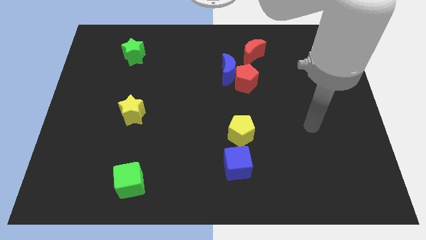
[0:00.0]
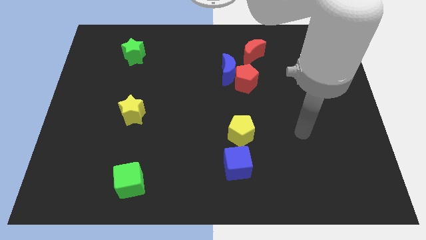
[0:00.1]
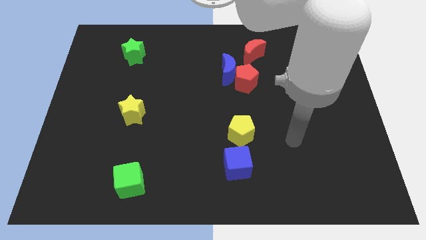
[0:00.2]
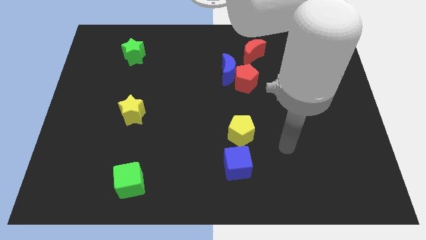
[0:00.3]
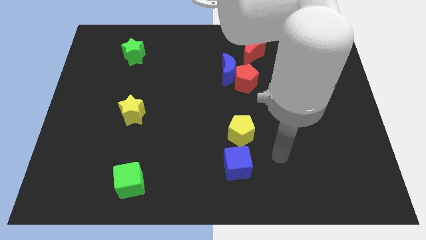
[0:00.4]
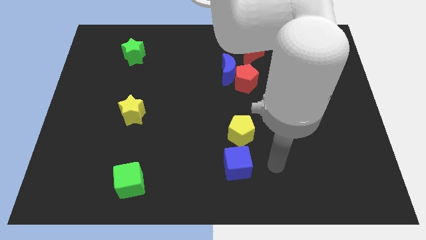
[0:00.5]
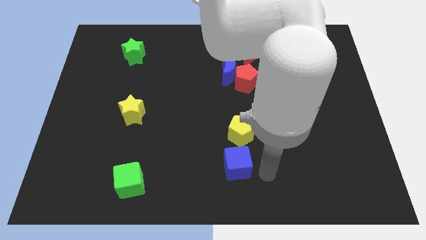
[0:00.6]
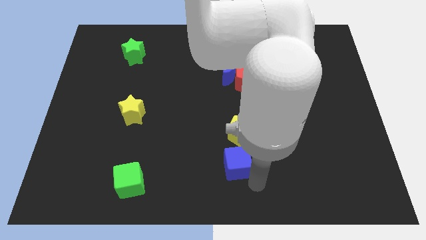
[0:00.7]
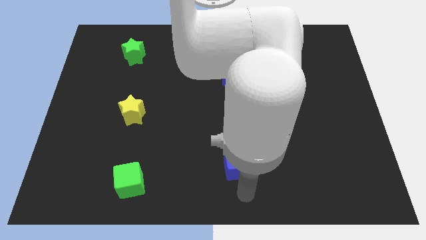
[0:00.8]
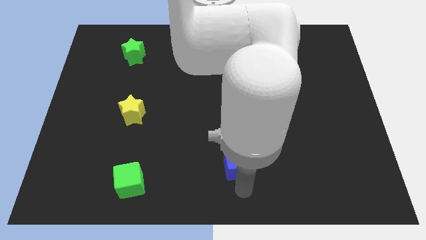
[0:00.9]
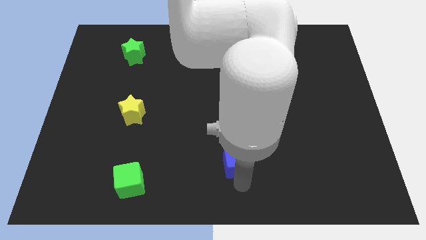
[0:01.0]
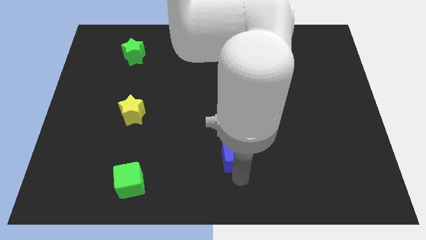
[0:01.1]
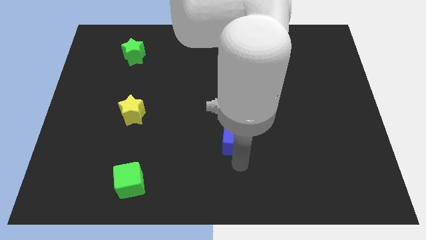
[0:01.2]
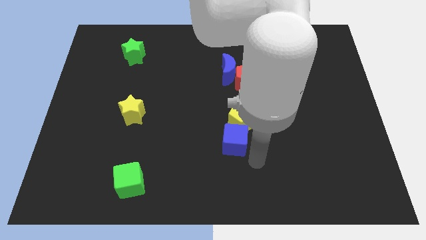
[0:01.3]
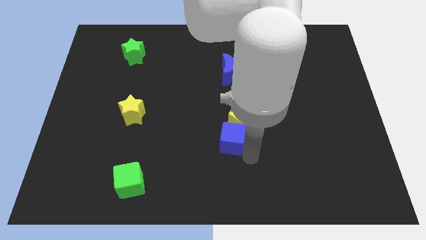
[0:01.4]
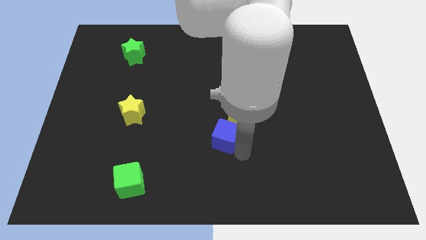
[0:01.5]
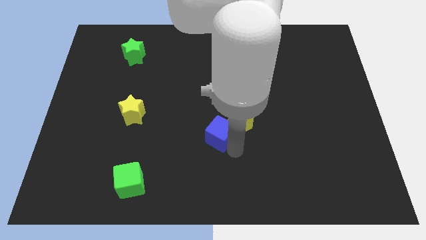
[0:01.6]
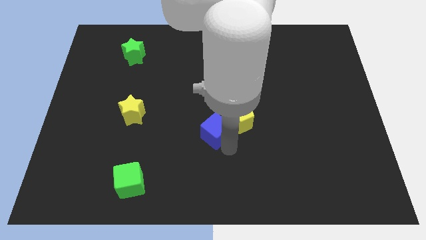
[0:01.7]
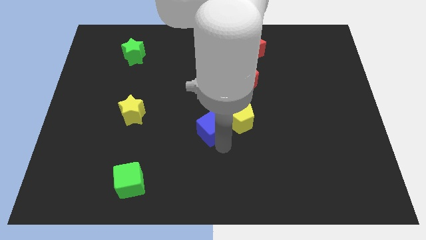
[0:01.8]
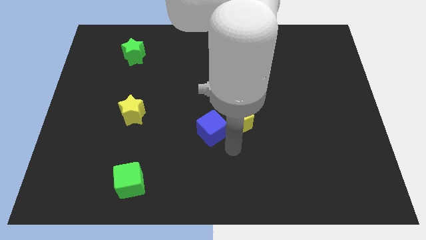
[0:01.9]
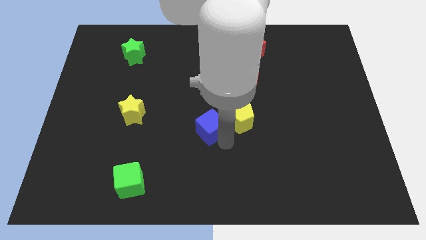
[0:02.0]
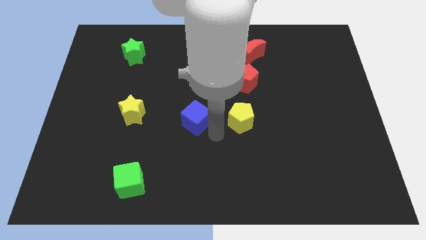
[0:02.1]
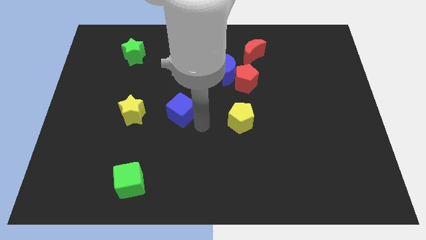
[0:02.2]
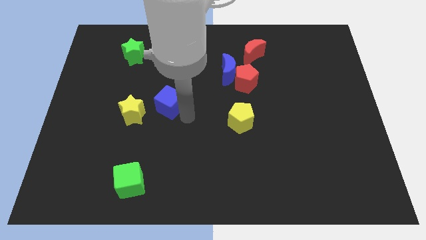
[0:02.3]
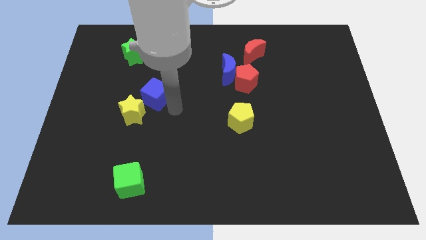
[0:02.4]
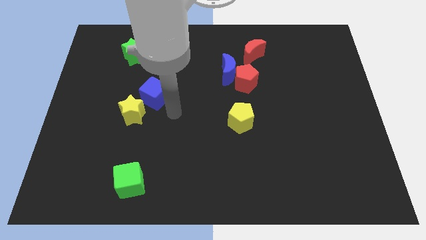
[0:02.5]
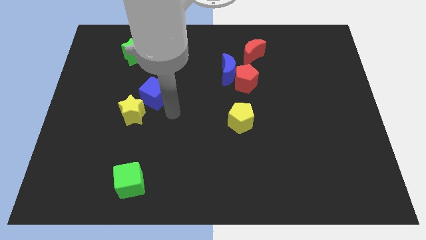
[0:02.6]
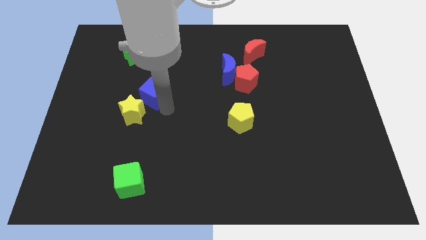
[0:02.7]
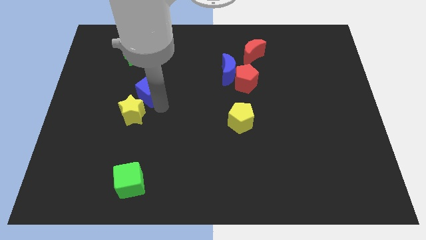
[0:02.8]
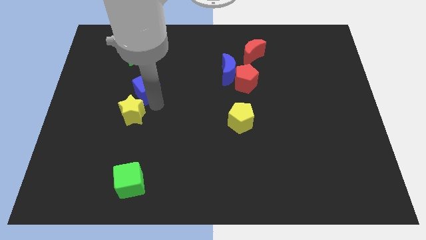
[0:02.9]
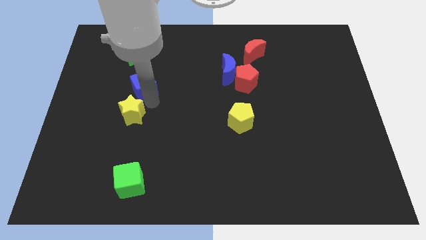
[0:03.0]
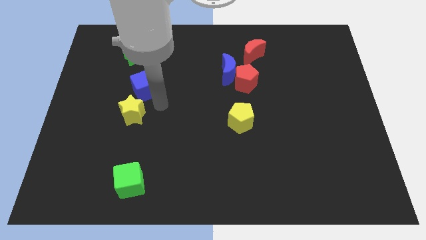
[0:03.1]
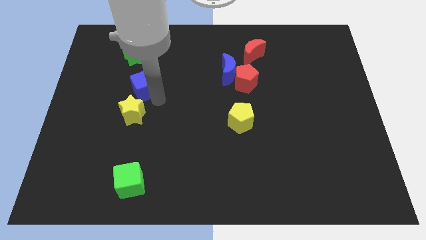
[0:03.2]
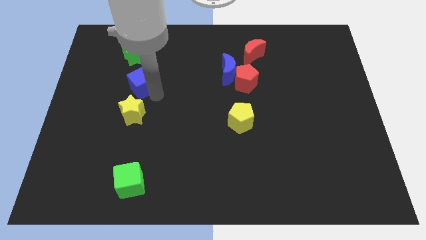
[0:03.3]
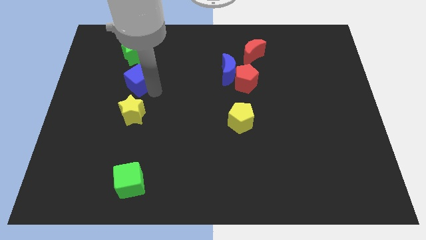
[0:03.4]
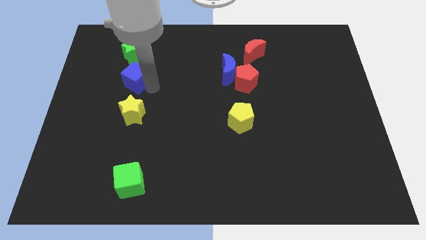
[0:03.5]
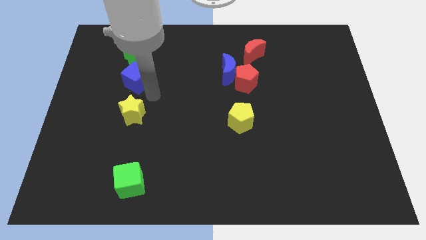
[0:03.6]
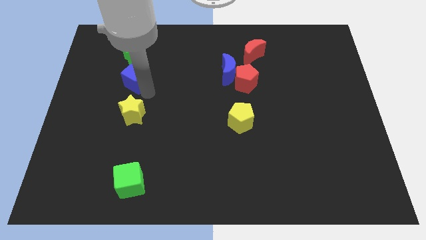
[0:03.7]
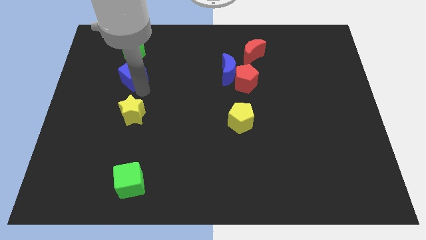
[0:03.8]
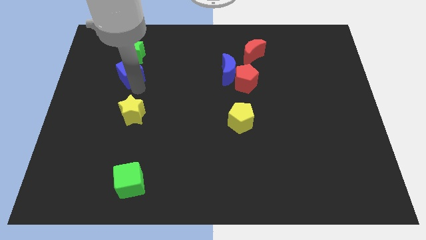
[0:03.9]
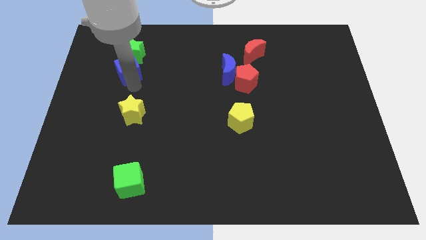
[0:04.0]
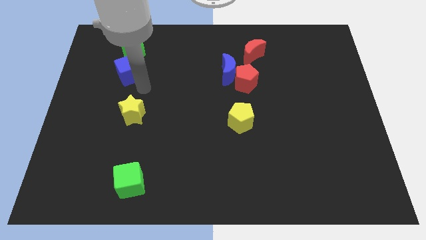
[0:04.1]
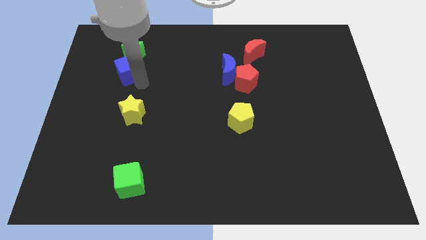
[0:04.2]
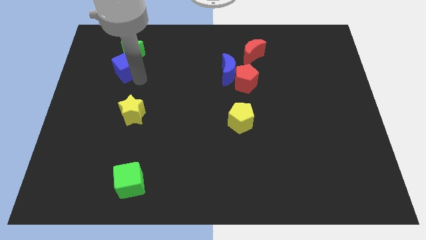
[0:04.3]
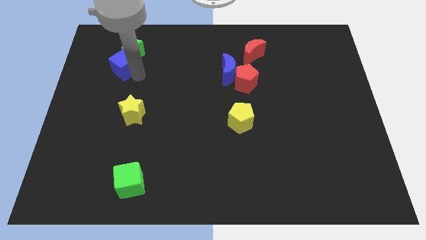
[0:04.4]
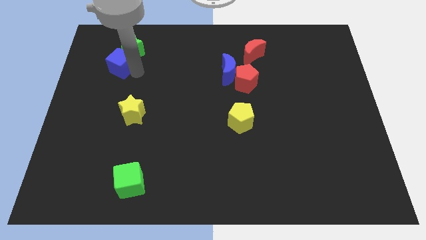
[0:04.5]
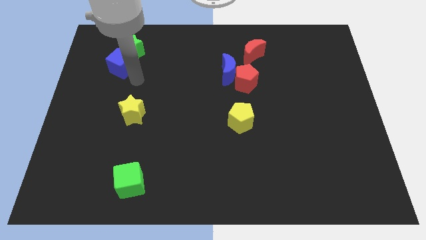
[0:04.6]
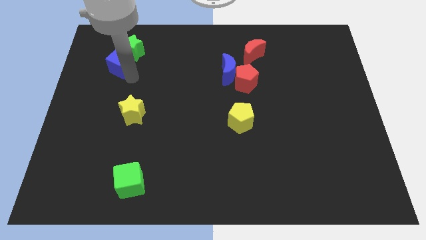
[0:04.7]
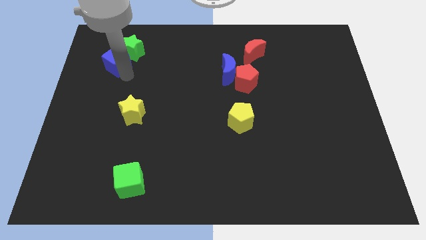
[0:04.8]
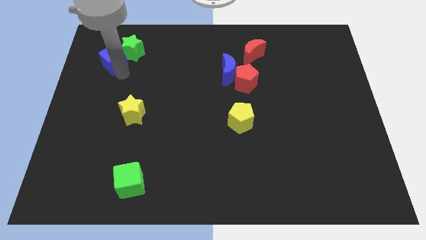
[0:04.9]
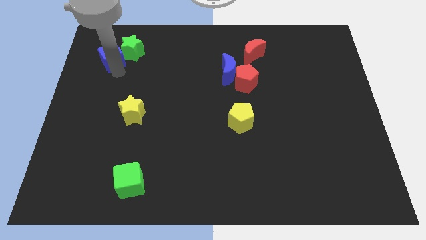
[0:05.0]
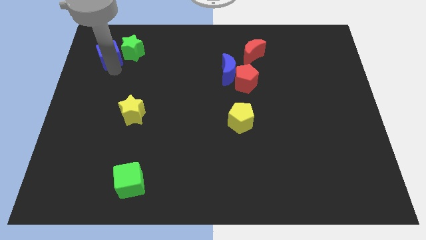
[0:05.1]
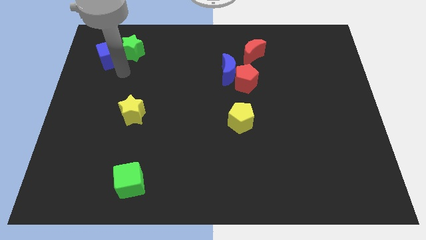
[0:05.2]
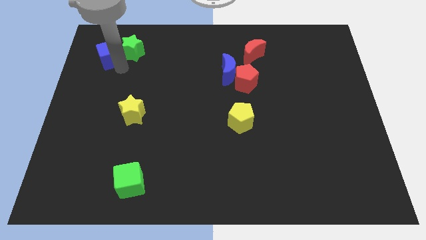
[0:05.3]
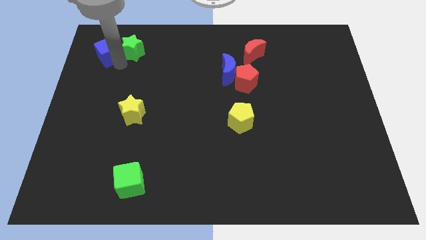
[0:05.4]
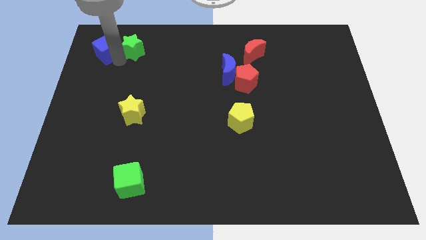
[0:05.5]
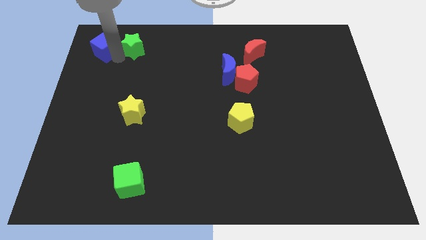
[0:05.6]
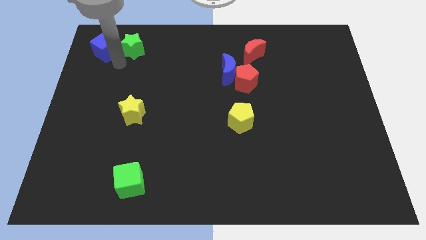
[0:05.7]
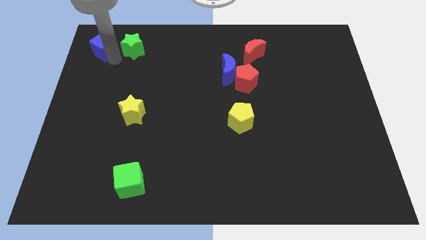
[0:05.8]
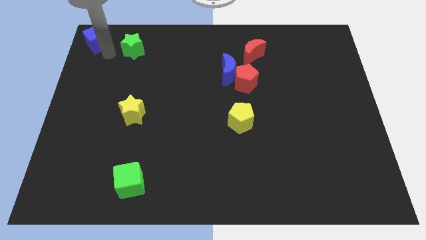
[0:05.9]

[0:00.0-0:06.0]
push the blue cube to the top left of the board
